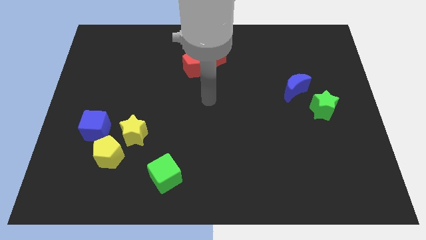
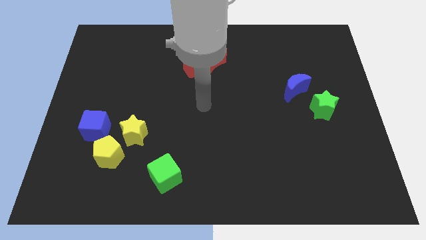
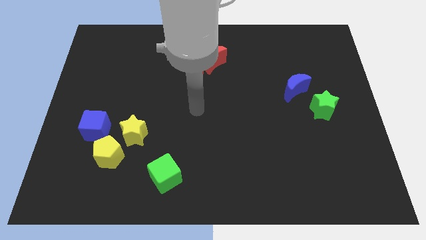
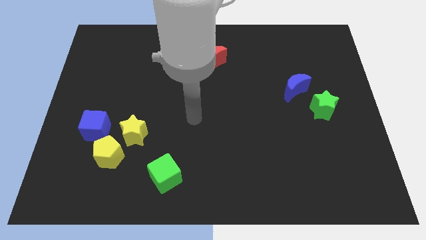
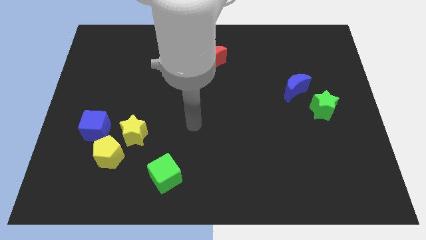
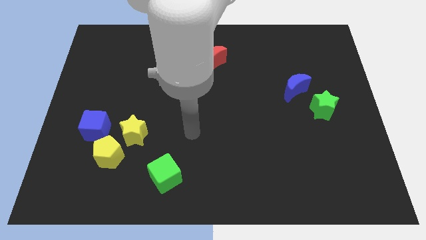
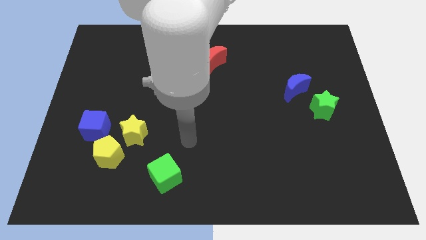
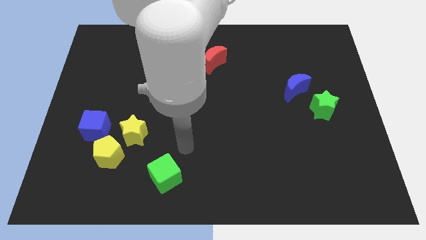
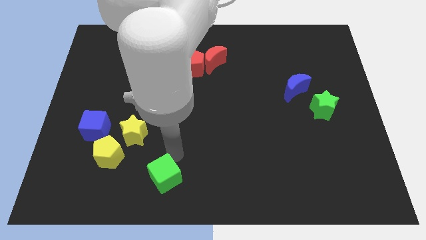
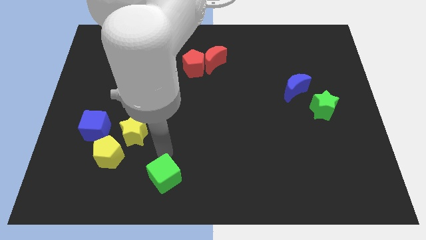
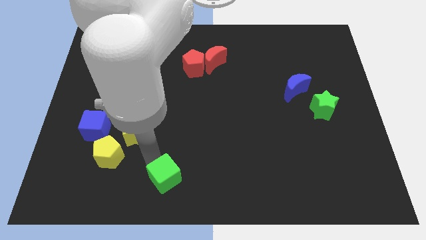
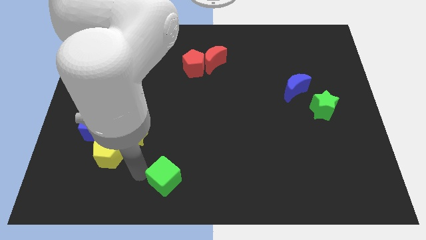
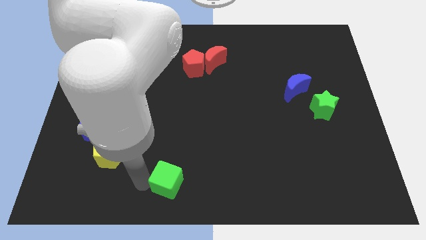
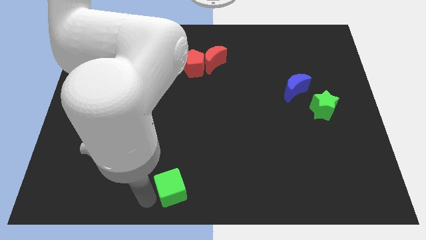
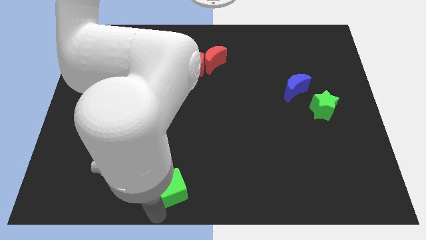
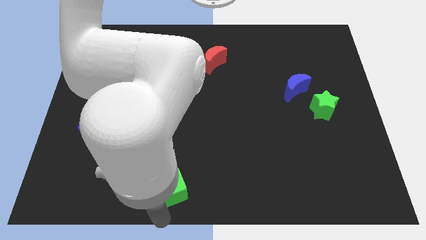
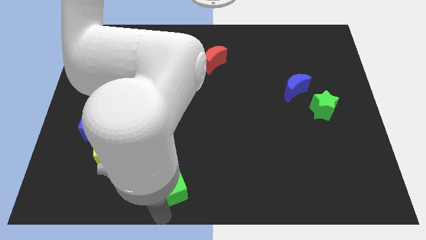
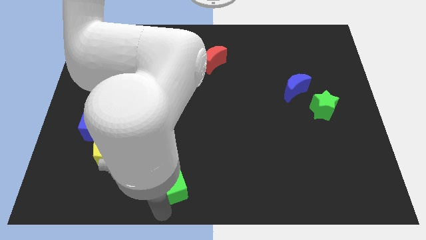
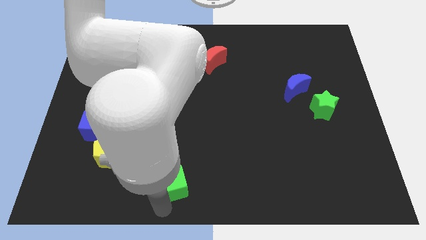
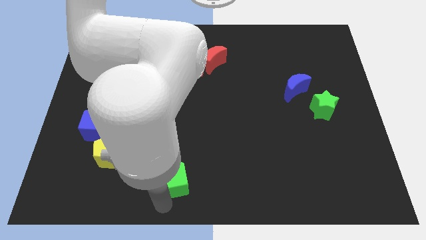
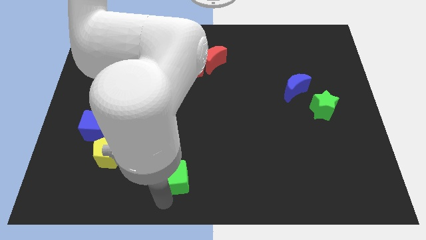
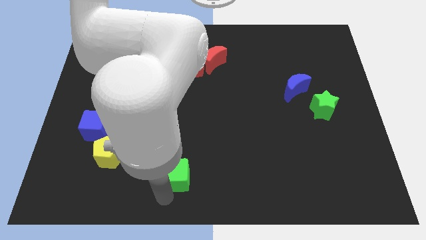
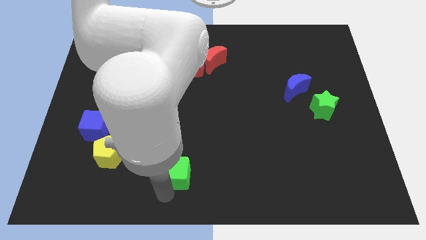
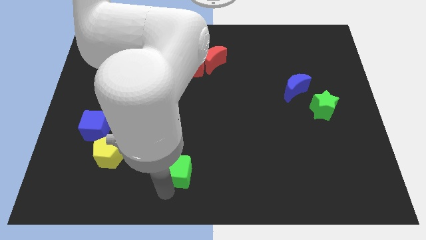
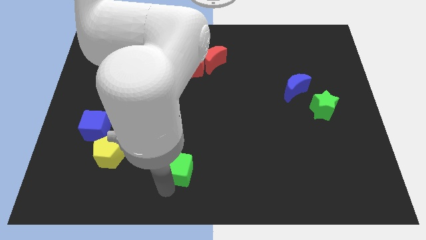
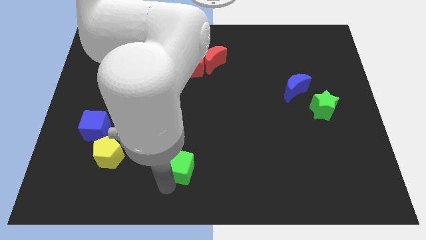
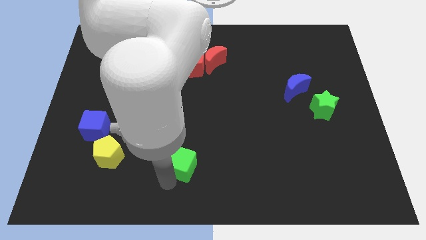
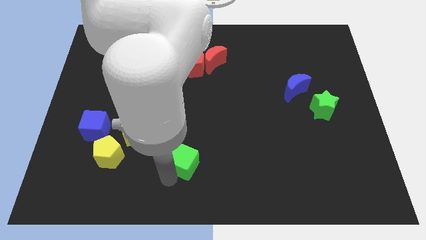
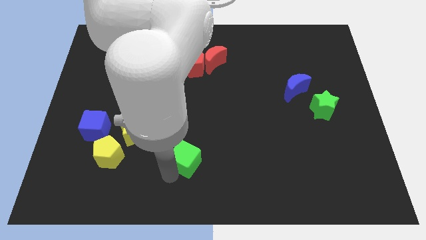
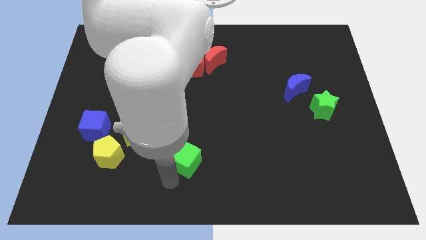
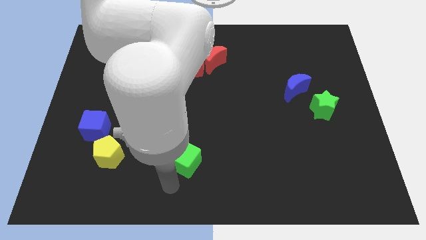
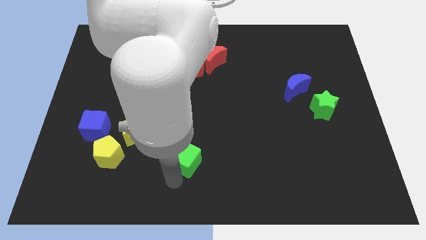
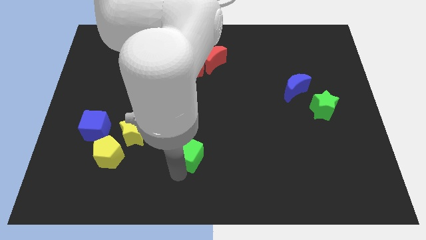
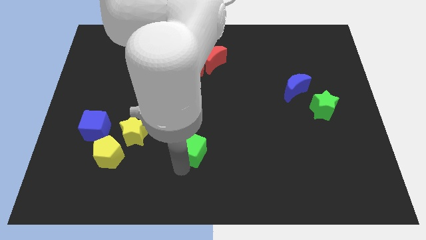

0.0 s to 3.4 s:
move the green cube somewhat diagonally up and to the right

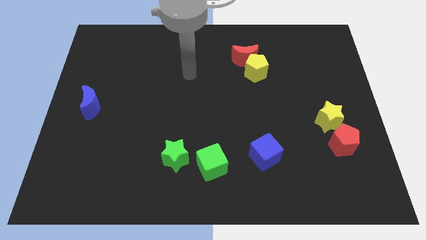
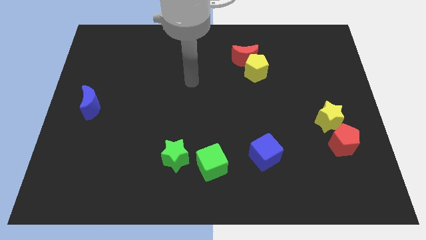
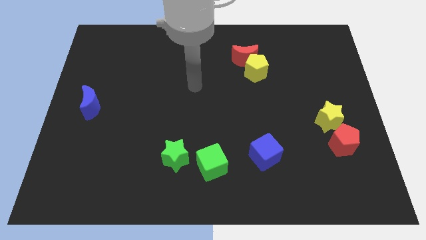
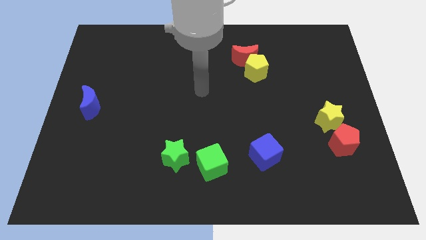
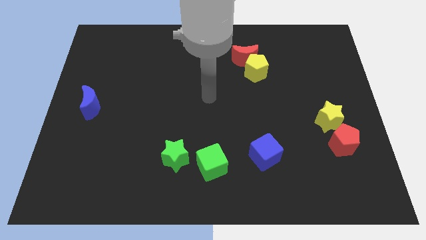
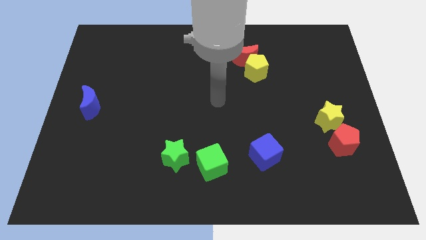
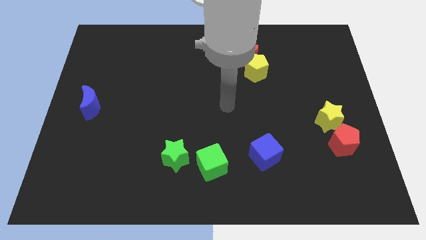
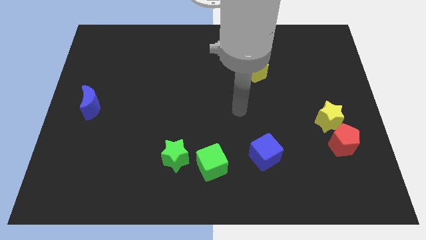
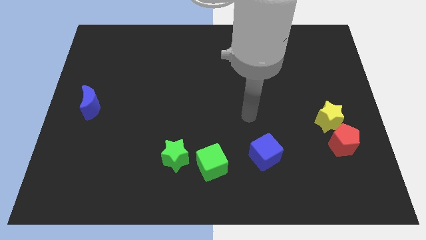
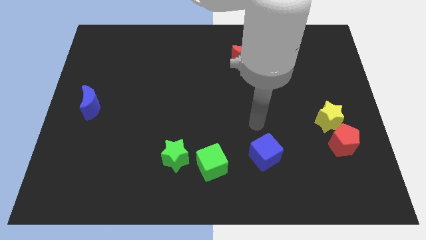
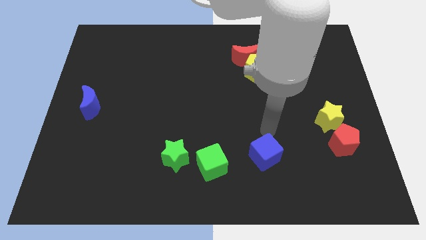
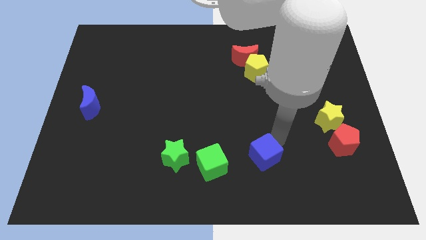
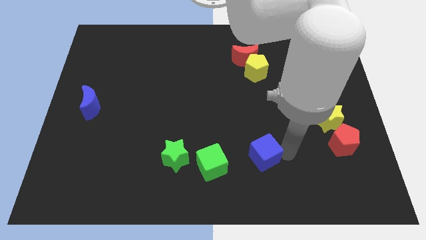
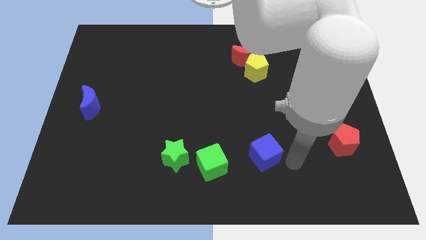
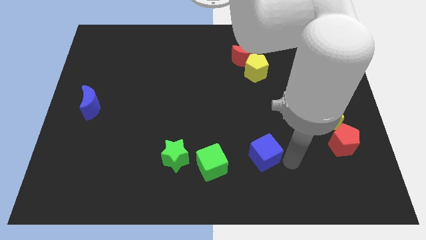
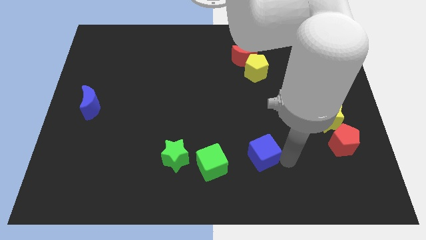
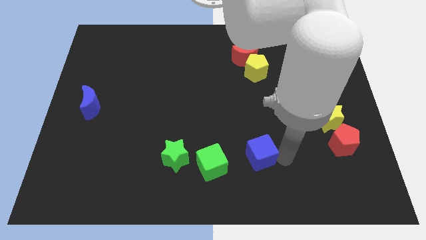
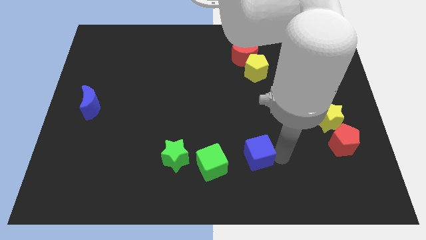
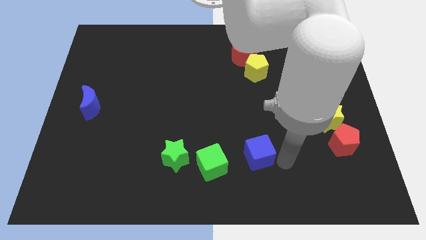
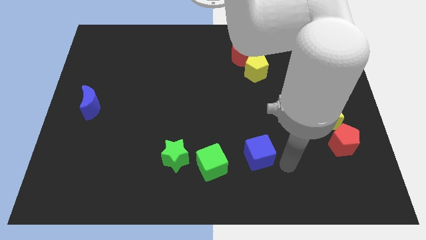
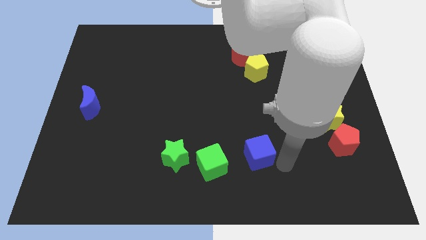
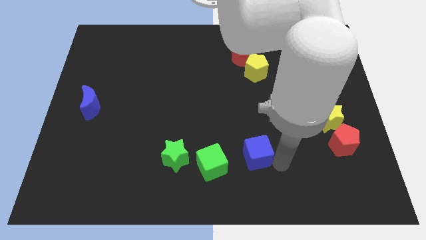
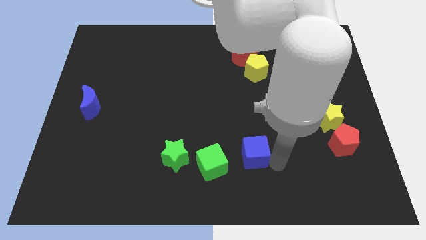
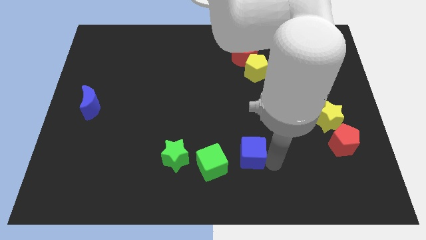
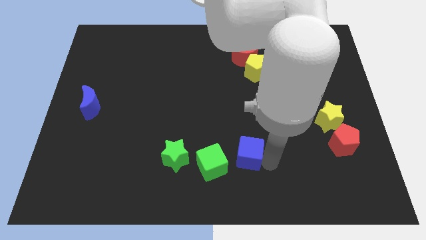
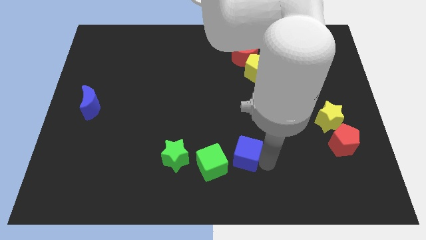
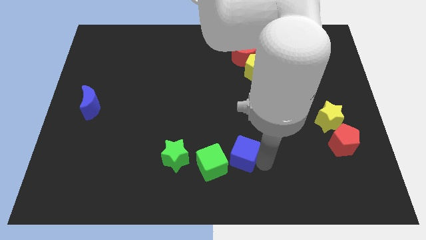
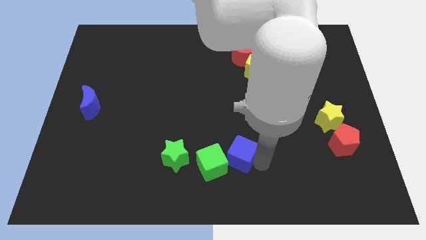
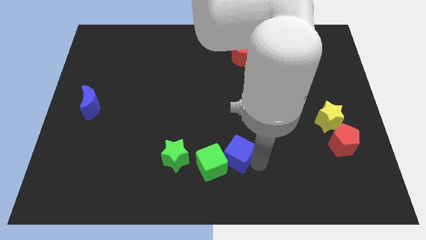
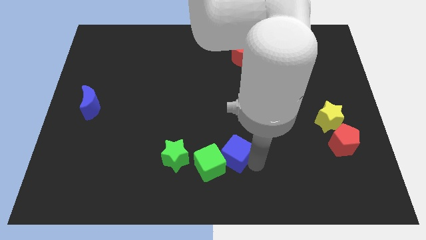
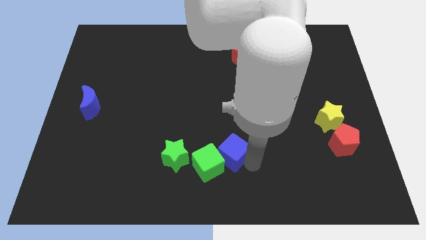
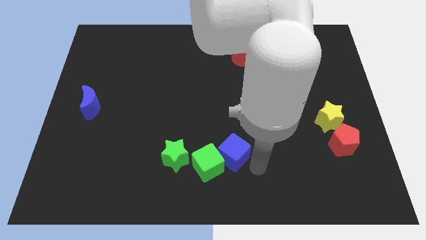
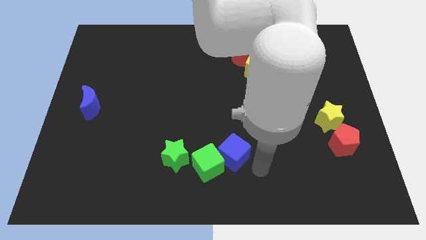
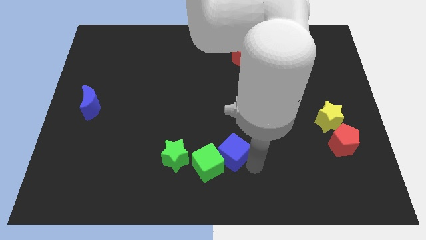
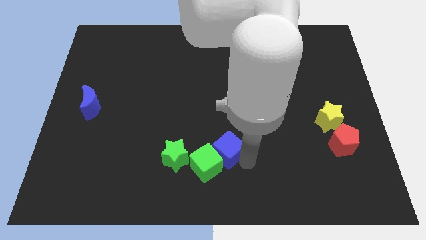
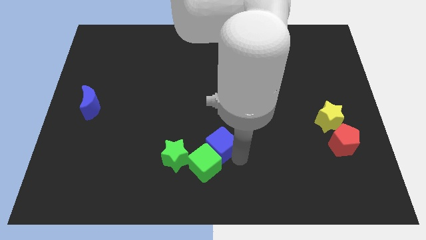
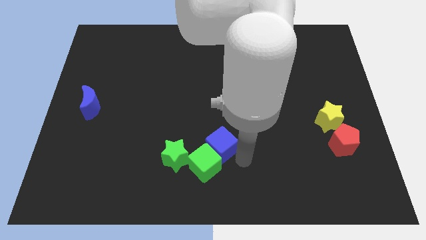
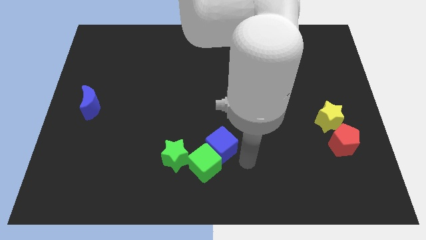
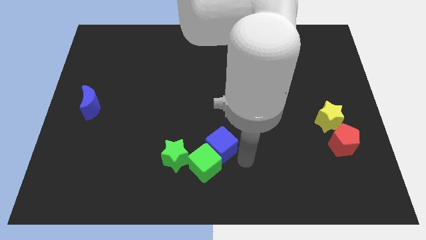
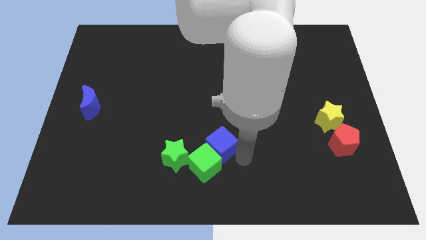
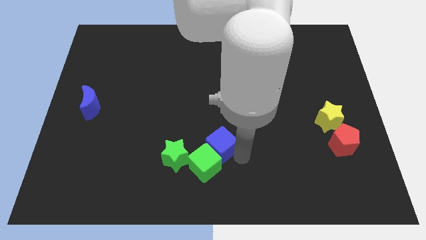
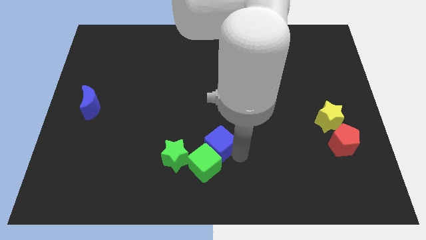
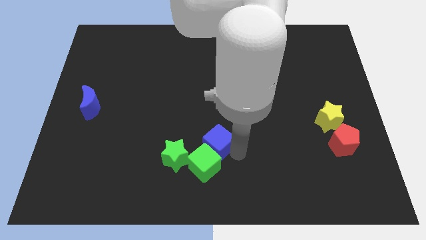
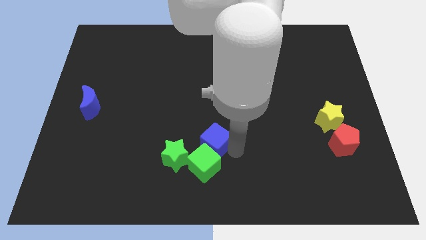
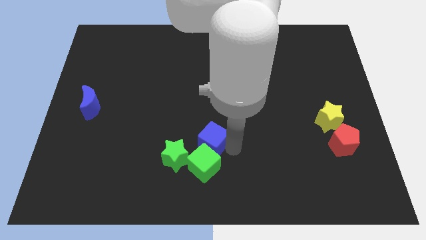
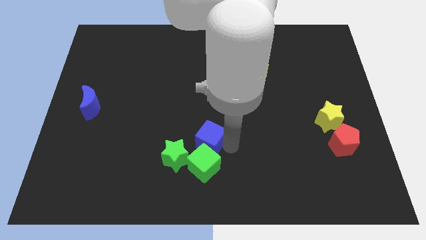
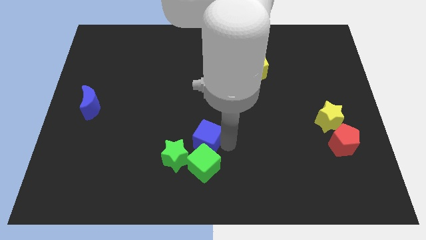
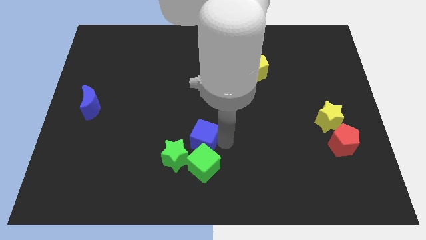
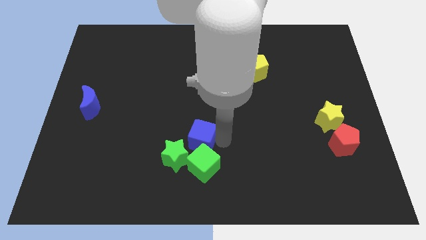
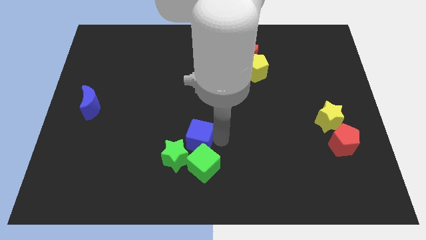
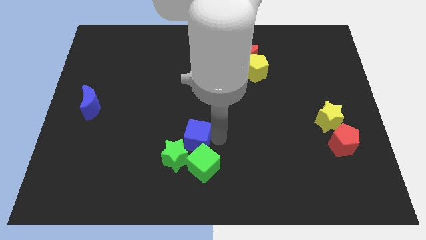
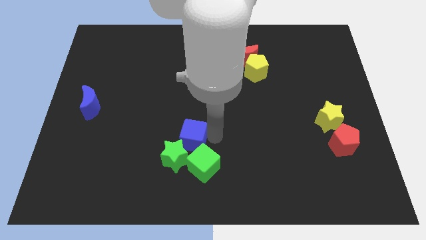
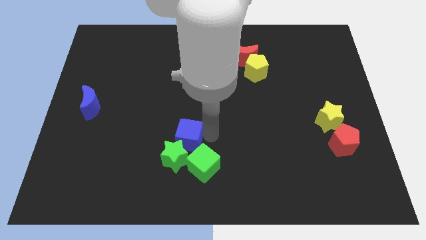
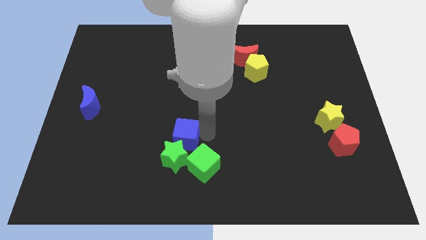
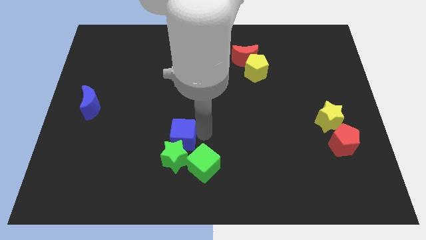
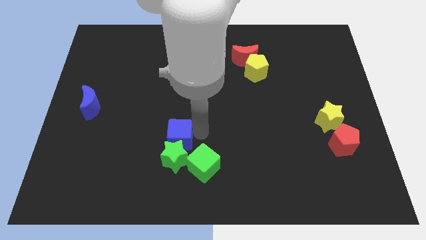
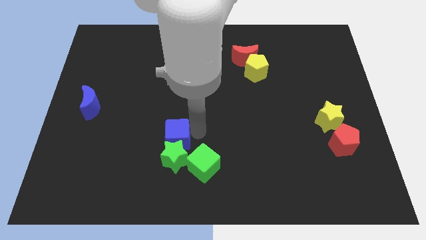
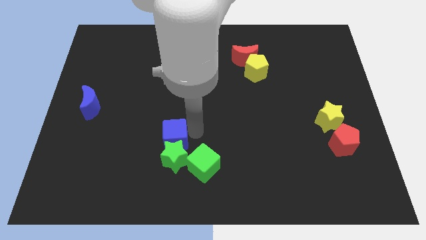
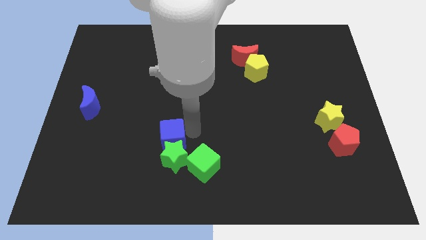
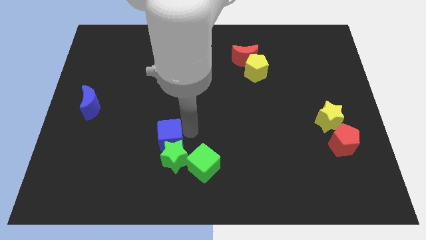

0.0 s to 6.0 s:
slide the blue cube left
